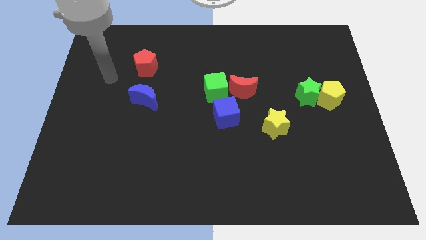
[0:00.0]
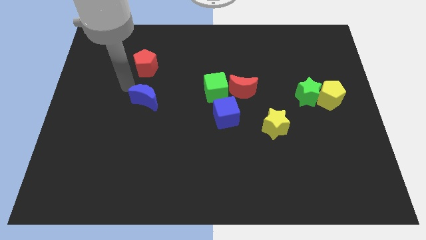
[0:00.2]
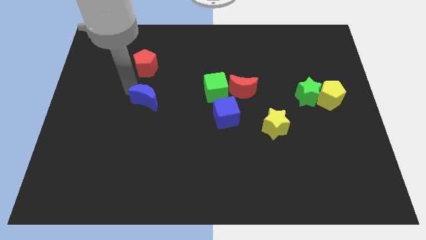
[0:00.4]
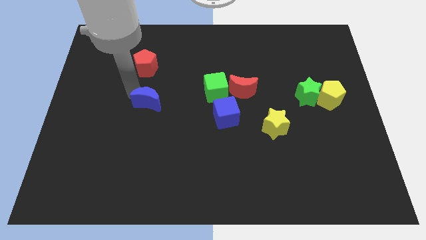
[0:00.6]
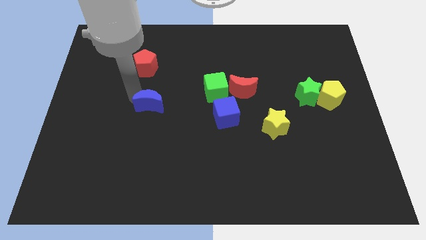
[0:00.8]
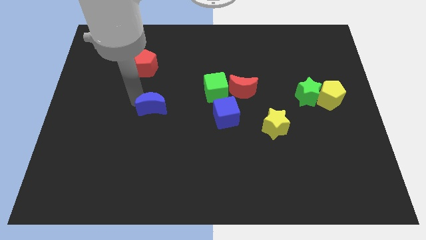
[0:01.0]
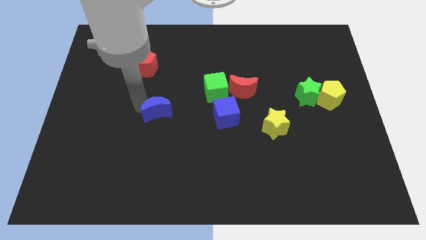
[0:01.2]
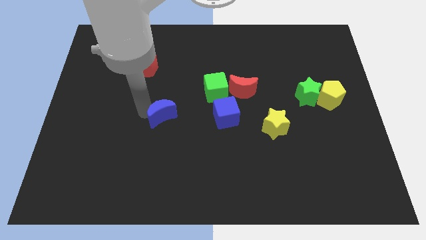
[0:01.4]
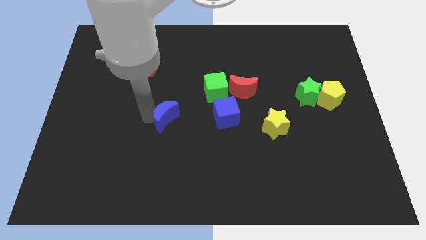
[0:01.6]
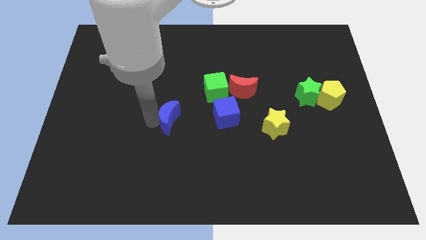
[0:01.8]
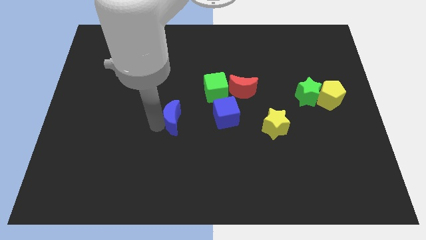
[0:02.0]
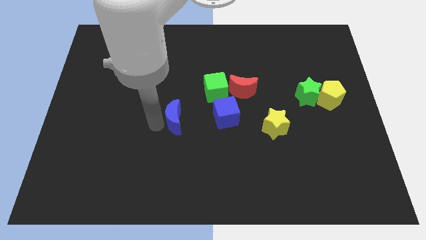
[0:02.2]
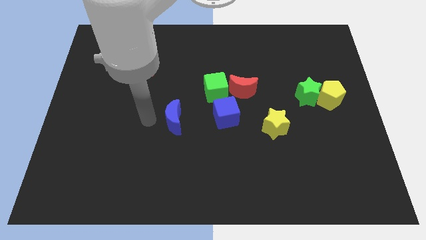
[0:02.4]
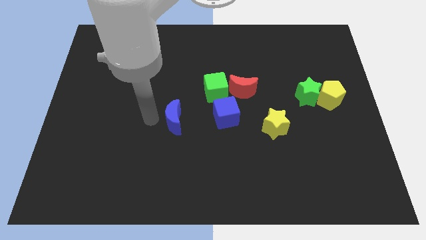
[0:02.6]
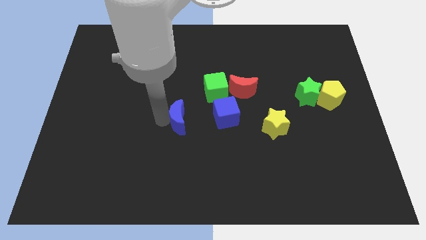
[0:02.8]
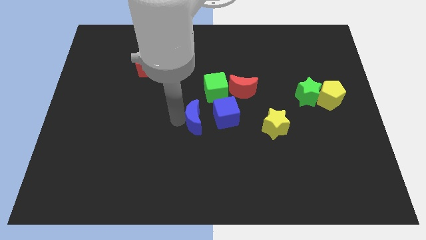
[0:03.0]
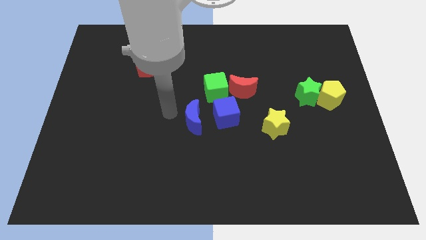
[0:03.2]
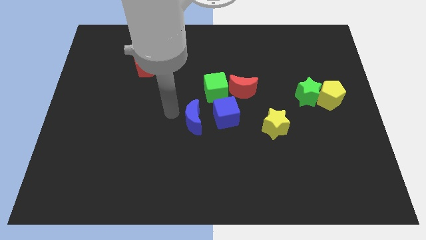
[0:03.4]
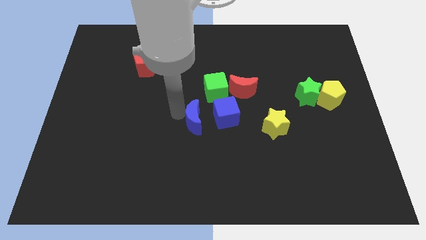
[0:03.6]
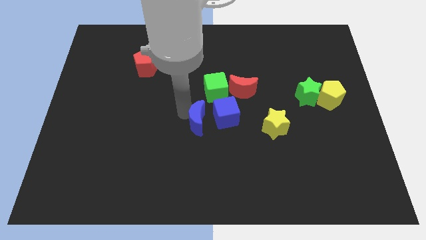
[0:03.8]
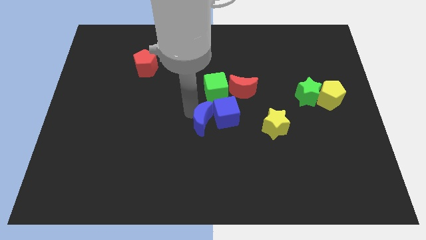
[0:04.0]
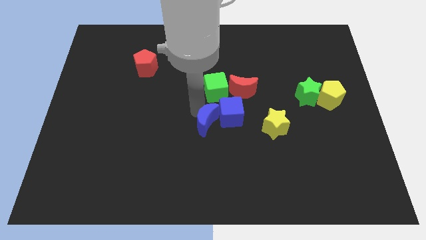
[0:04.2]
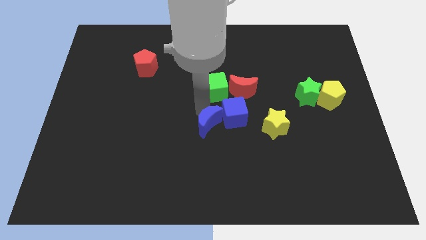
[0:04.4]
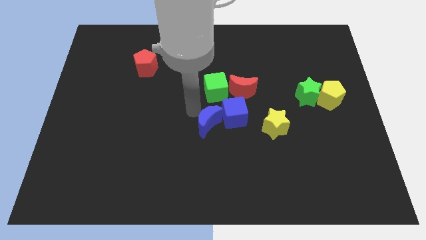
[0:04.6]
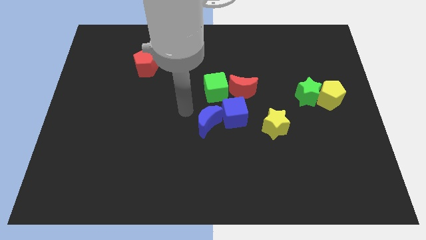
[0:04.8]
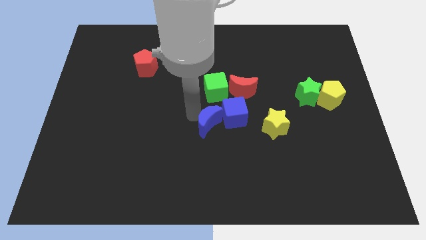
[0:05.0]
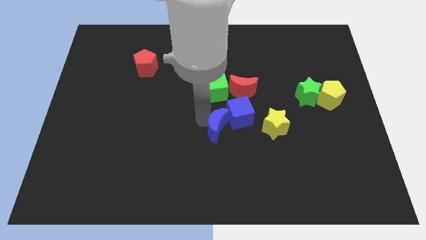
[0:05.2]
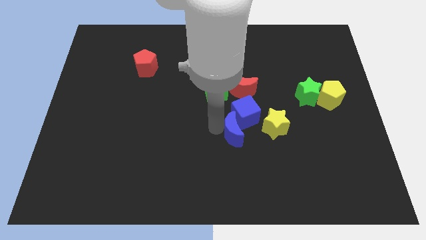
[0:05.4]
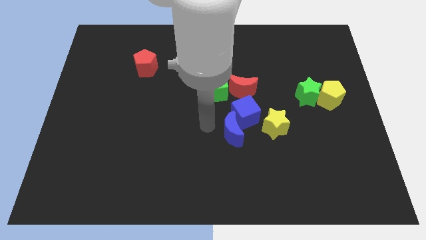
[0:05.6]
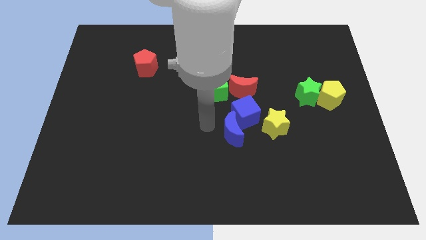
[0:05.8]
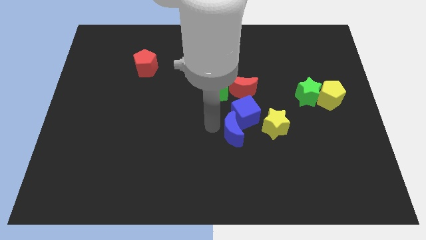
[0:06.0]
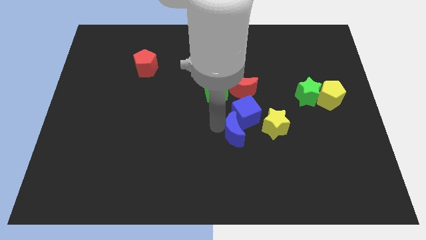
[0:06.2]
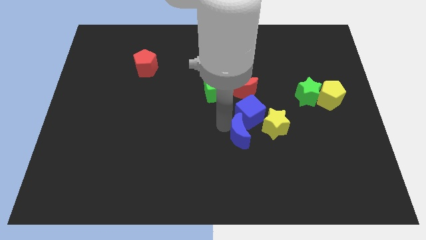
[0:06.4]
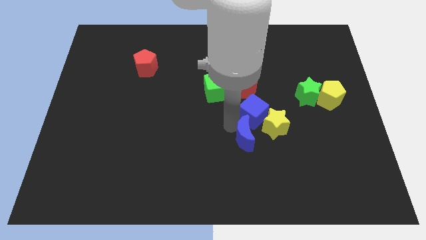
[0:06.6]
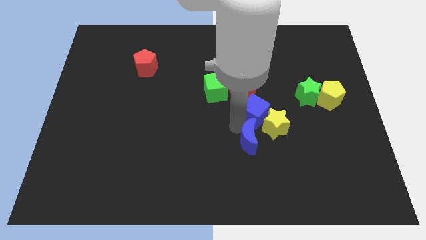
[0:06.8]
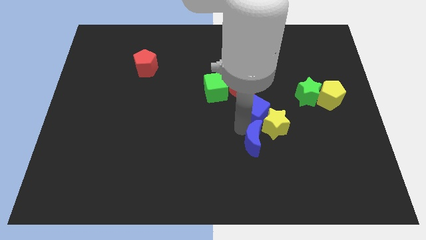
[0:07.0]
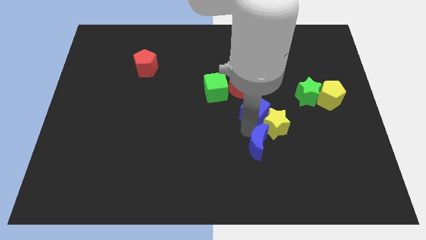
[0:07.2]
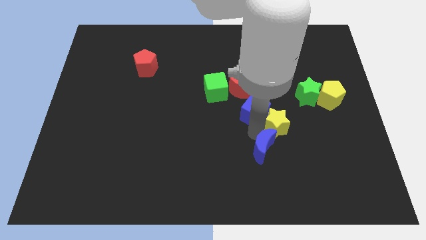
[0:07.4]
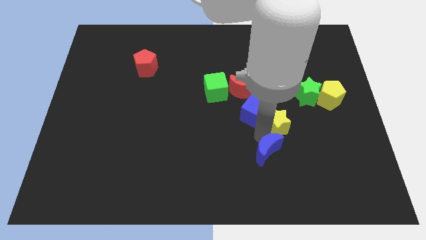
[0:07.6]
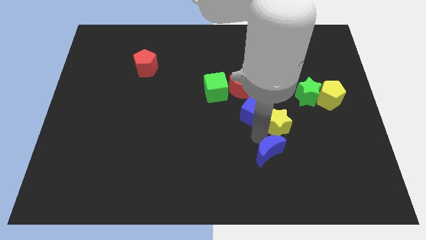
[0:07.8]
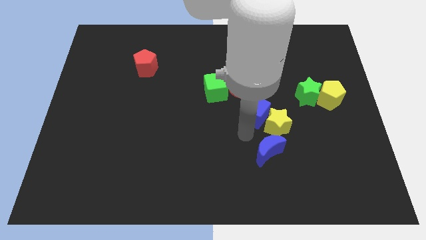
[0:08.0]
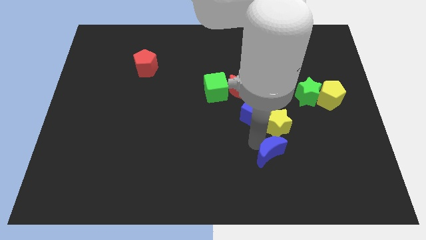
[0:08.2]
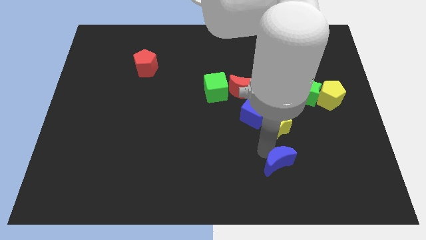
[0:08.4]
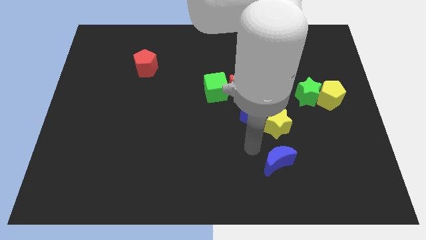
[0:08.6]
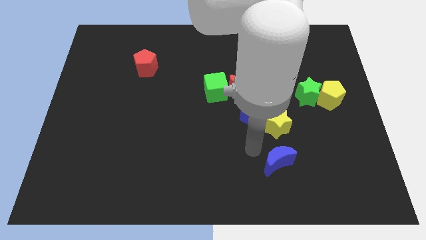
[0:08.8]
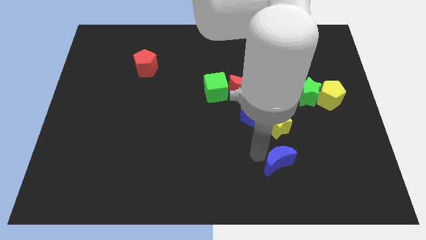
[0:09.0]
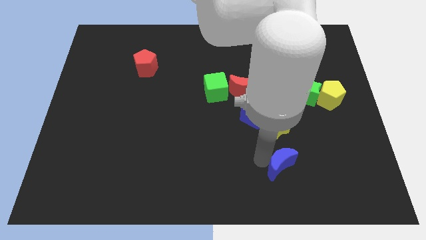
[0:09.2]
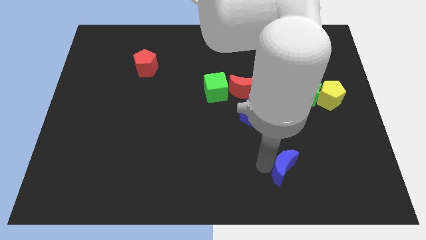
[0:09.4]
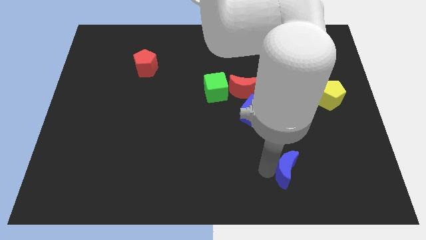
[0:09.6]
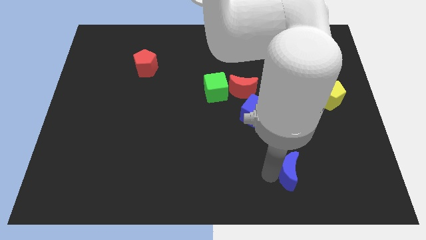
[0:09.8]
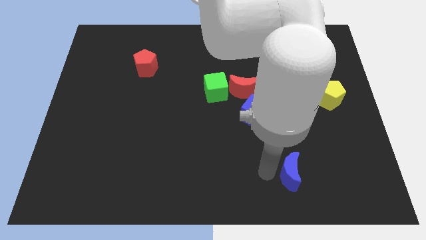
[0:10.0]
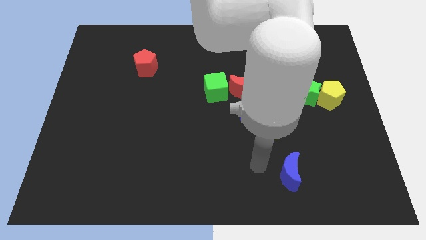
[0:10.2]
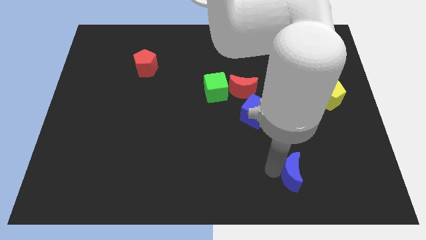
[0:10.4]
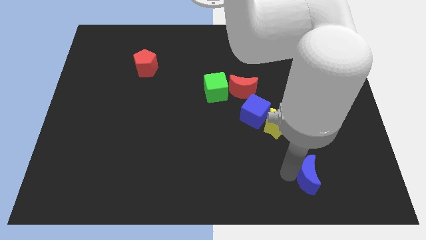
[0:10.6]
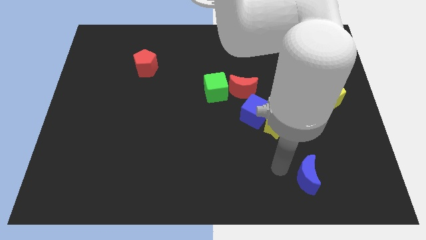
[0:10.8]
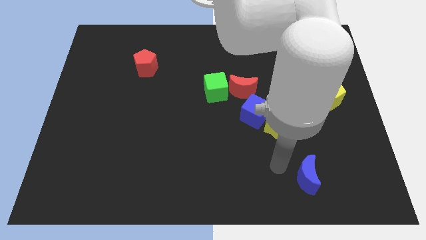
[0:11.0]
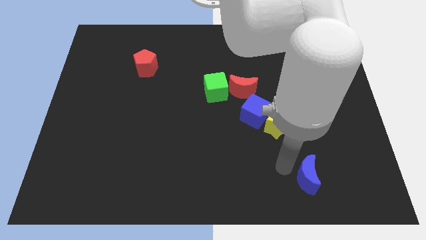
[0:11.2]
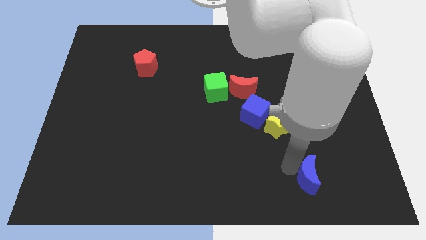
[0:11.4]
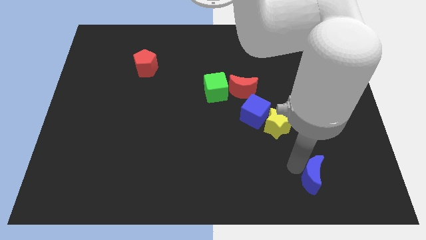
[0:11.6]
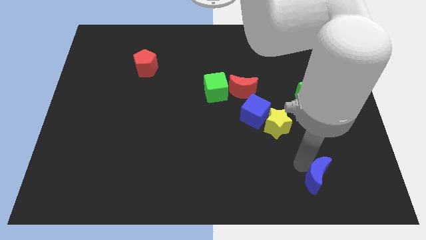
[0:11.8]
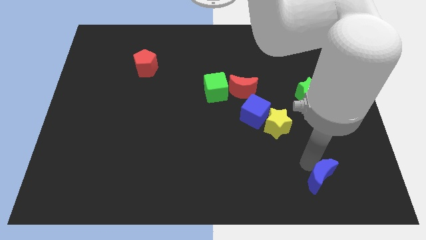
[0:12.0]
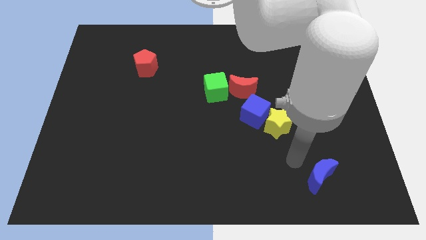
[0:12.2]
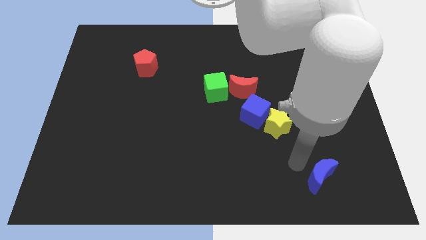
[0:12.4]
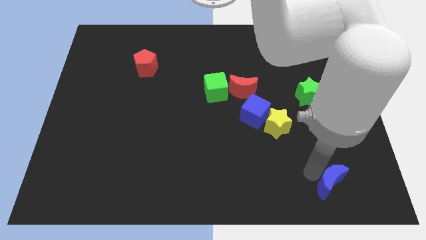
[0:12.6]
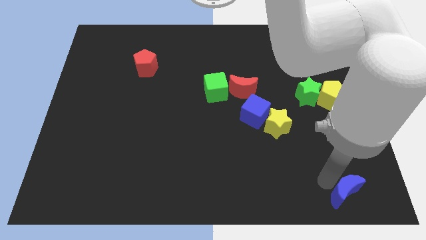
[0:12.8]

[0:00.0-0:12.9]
slide the blue moon to the lower right corner
